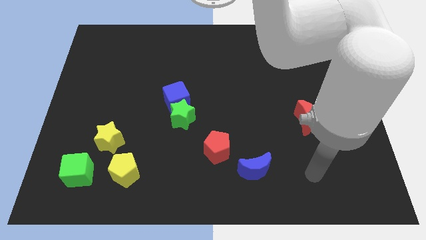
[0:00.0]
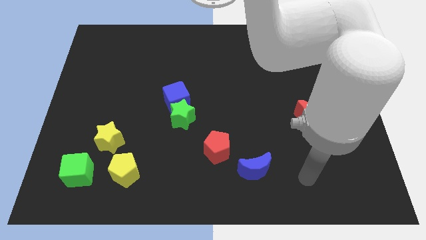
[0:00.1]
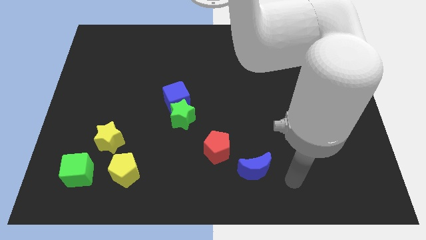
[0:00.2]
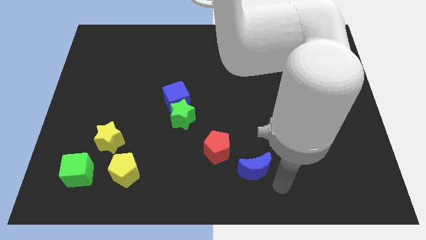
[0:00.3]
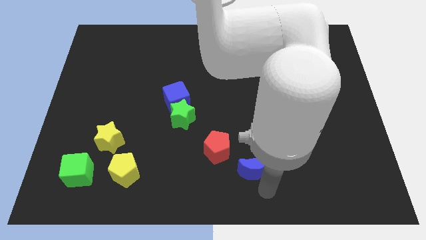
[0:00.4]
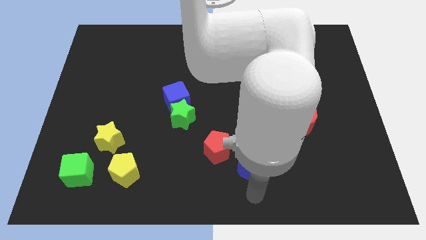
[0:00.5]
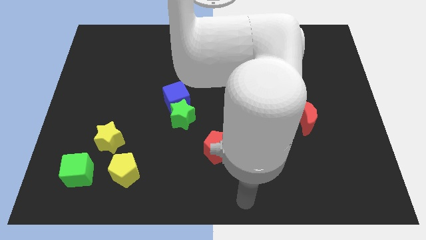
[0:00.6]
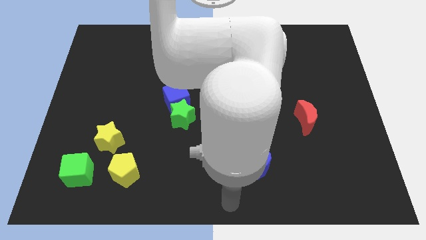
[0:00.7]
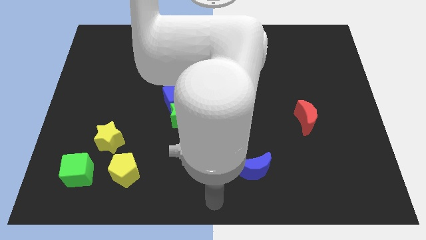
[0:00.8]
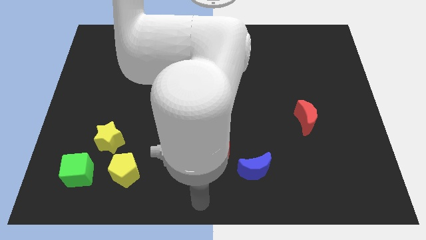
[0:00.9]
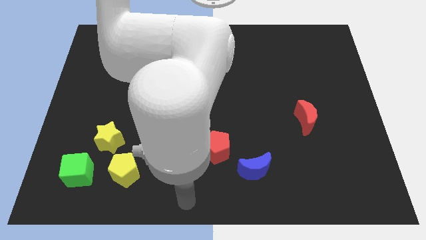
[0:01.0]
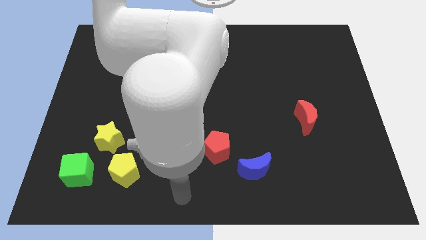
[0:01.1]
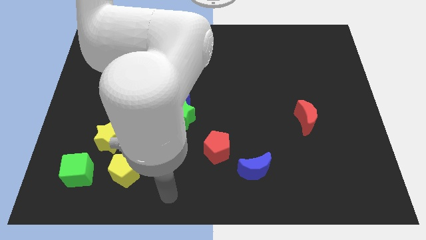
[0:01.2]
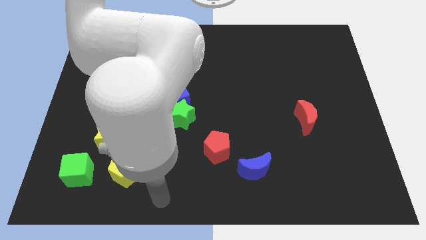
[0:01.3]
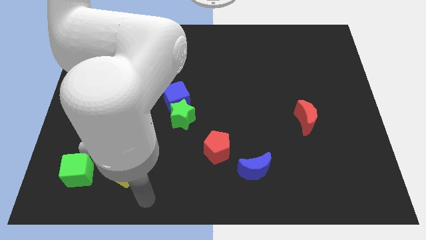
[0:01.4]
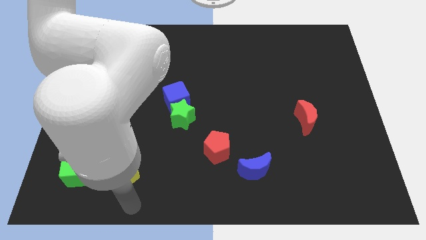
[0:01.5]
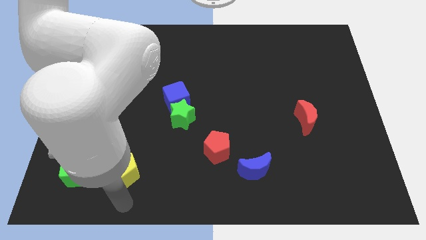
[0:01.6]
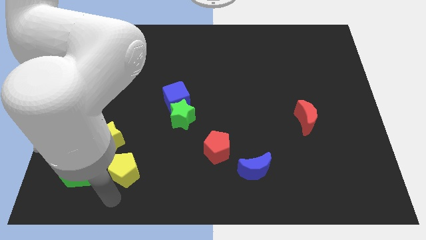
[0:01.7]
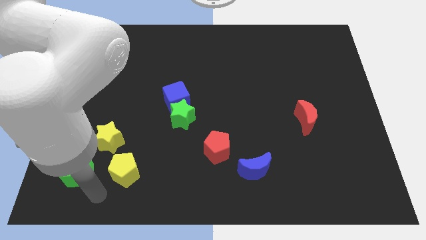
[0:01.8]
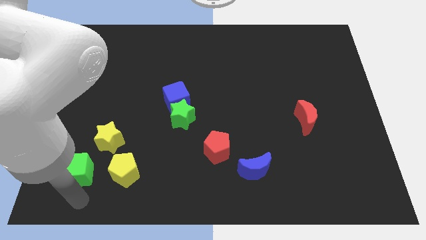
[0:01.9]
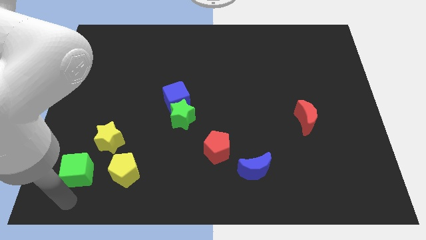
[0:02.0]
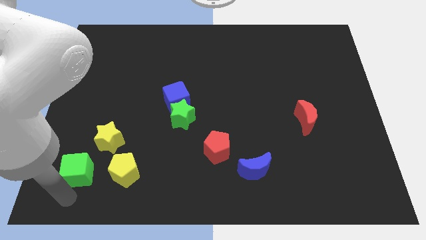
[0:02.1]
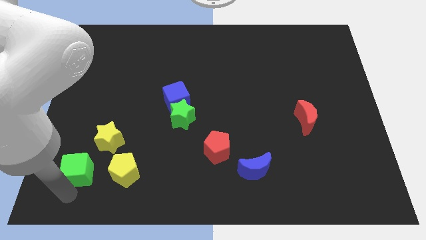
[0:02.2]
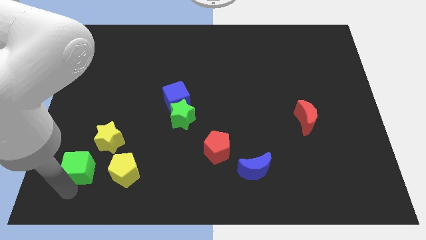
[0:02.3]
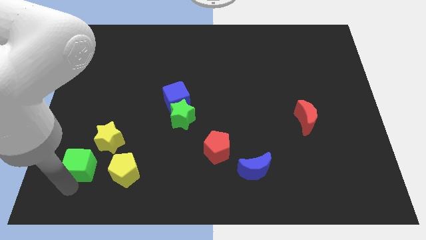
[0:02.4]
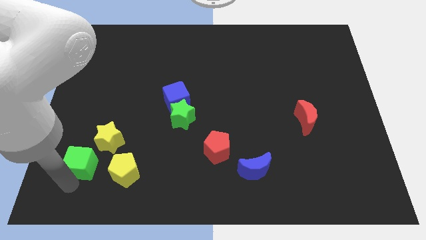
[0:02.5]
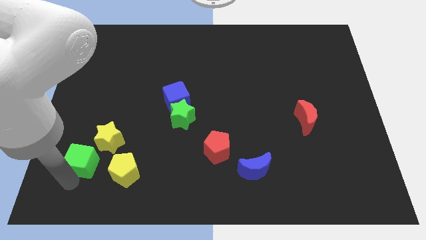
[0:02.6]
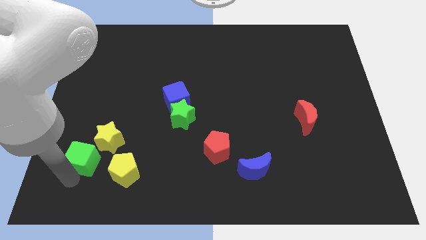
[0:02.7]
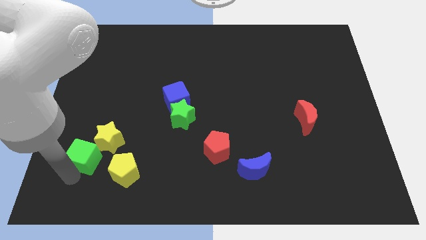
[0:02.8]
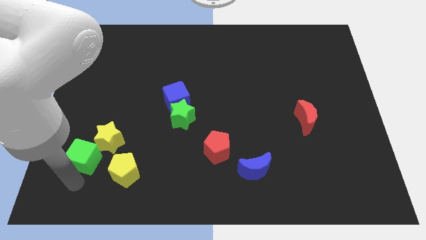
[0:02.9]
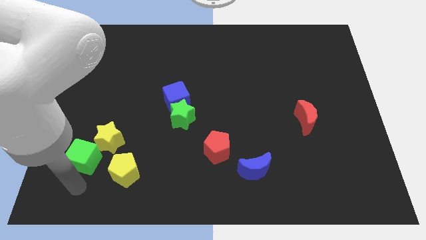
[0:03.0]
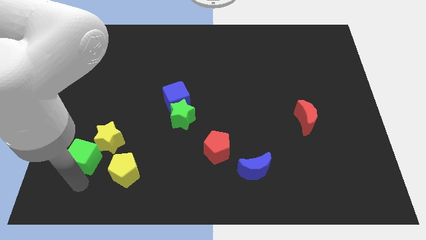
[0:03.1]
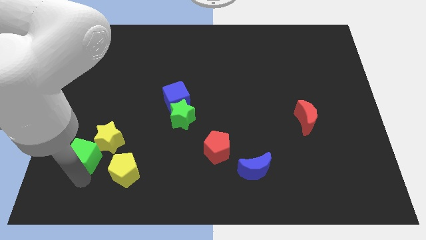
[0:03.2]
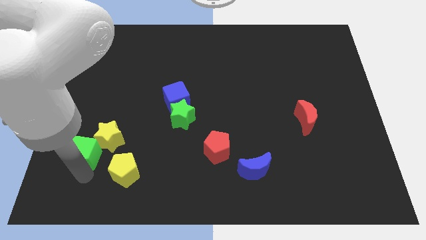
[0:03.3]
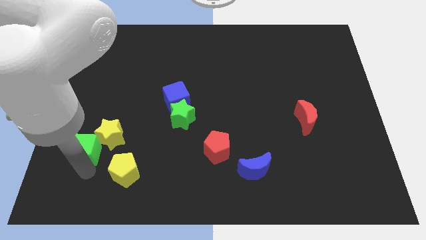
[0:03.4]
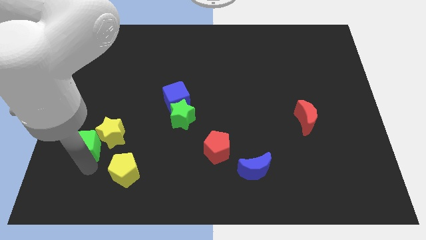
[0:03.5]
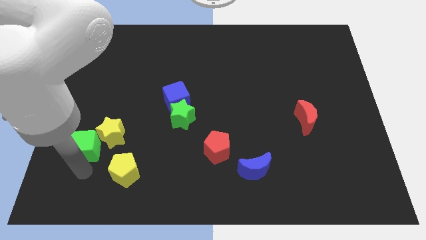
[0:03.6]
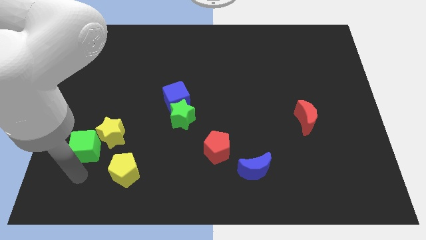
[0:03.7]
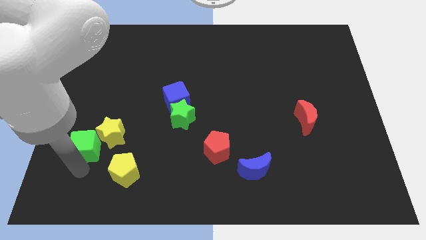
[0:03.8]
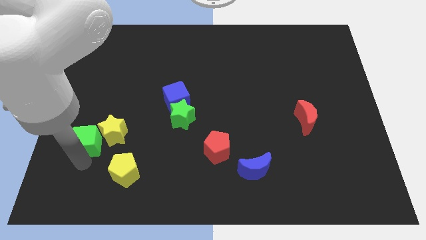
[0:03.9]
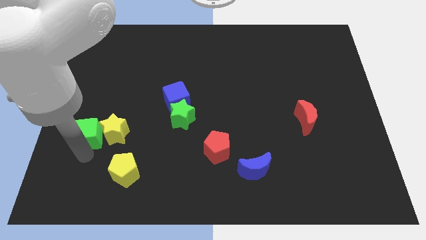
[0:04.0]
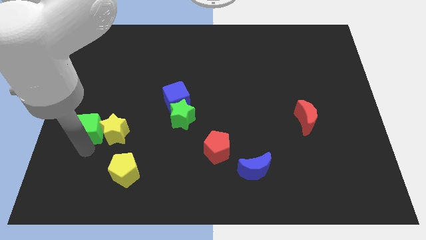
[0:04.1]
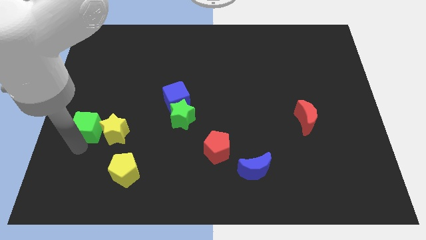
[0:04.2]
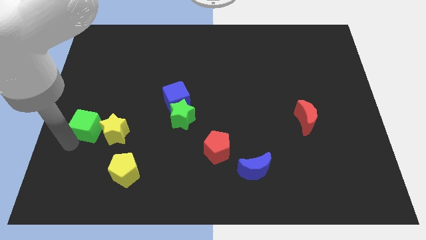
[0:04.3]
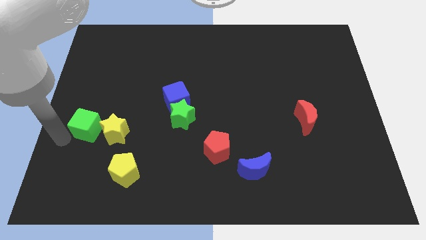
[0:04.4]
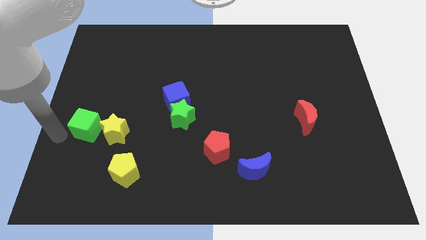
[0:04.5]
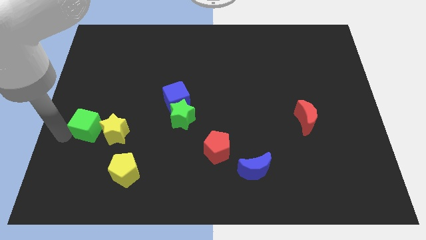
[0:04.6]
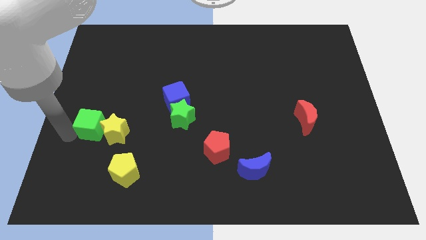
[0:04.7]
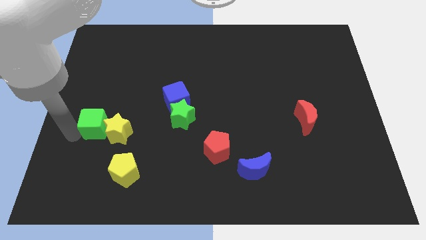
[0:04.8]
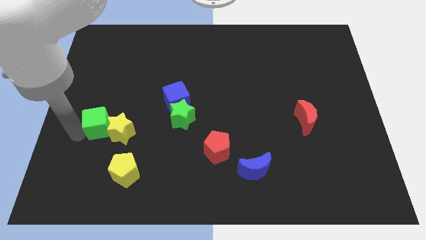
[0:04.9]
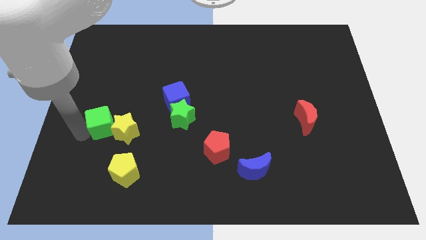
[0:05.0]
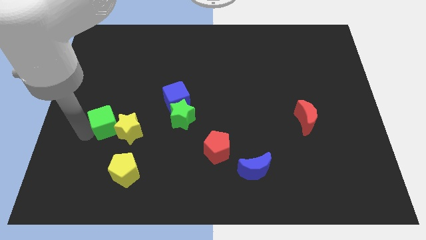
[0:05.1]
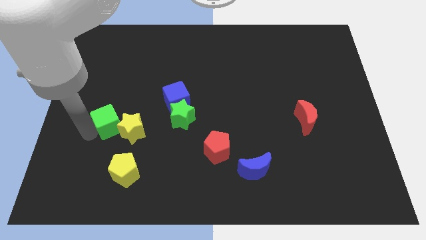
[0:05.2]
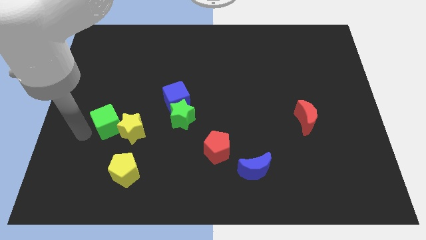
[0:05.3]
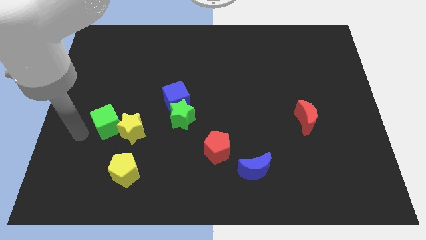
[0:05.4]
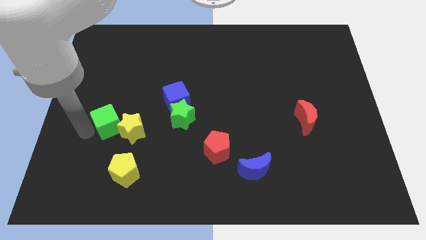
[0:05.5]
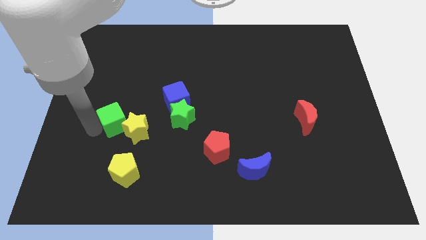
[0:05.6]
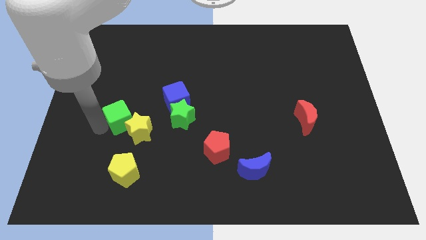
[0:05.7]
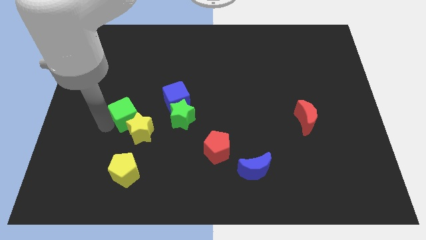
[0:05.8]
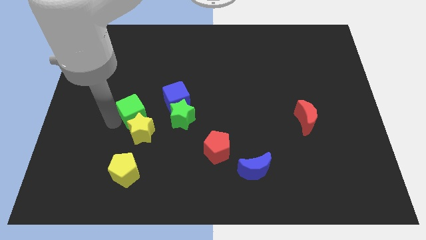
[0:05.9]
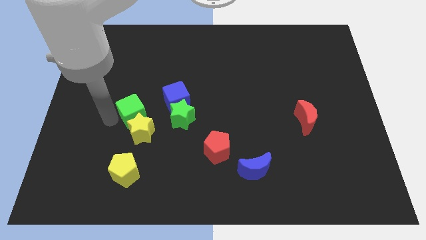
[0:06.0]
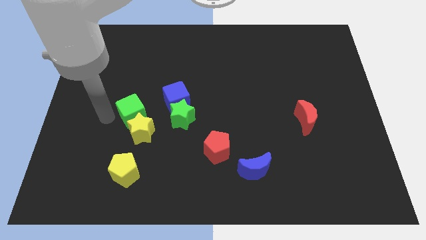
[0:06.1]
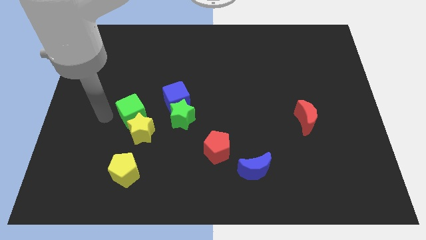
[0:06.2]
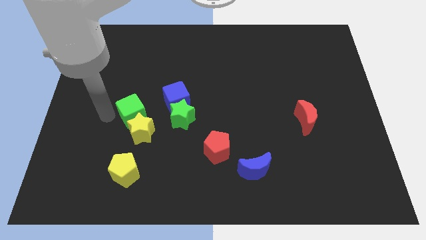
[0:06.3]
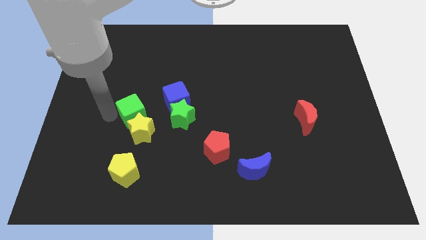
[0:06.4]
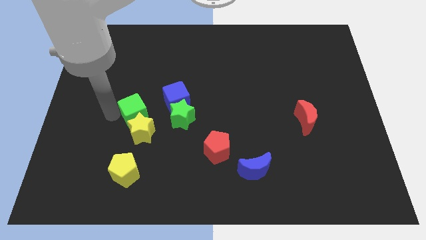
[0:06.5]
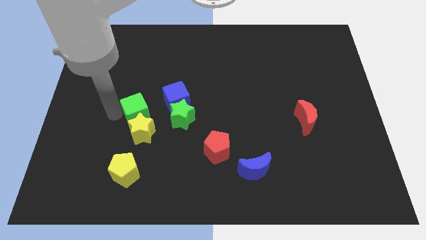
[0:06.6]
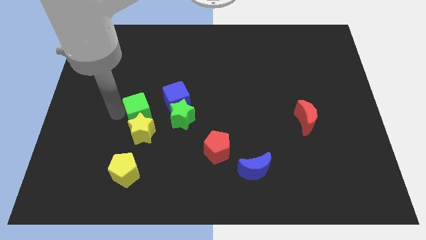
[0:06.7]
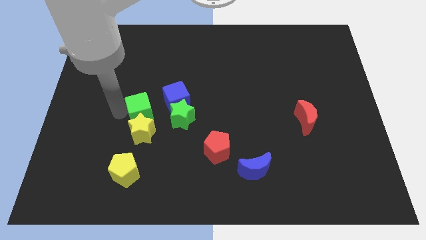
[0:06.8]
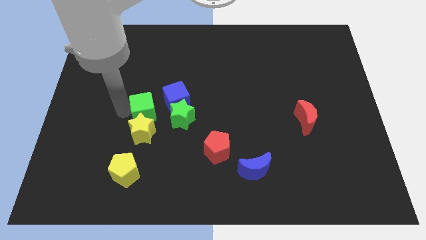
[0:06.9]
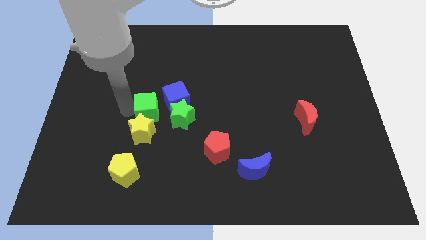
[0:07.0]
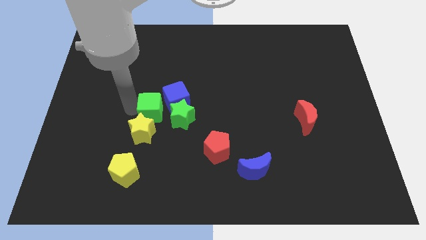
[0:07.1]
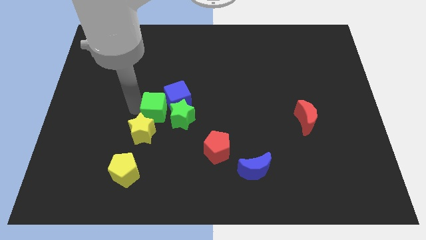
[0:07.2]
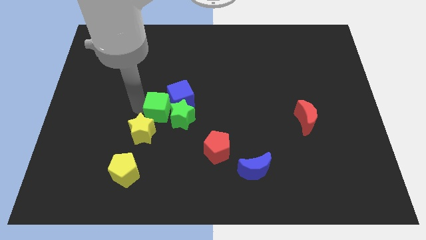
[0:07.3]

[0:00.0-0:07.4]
put the green cube to the green star
